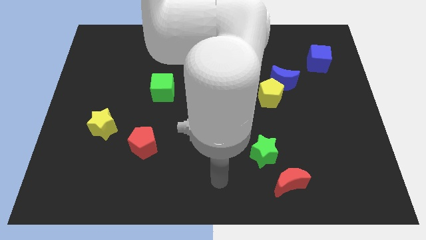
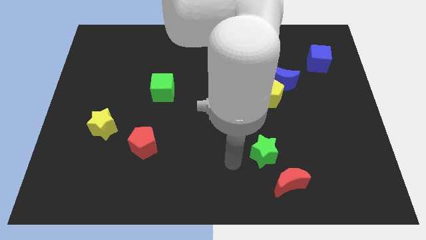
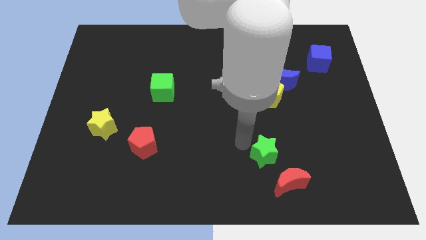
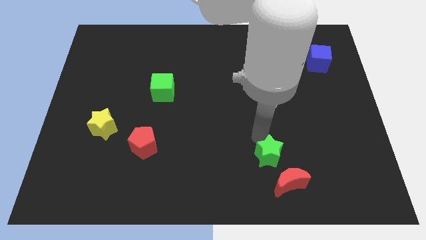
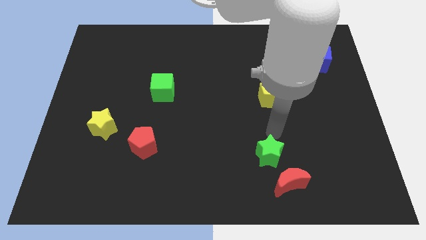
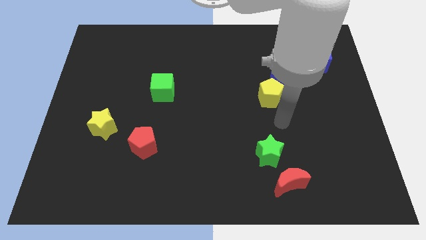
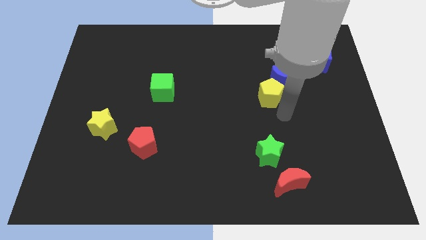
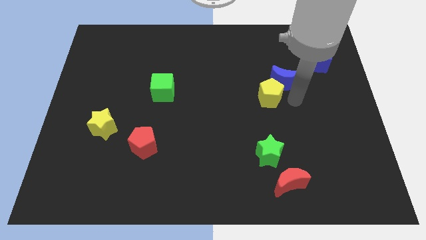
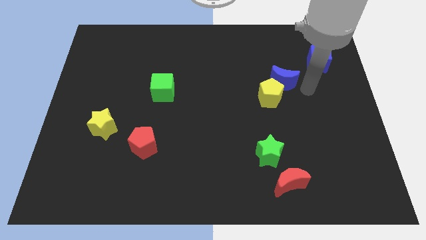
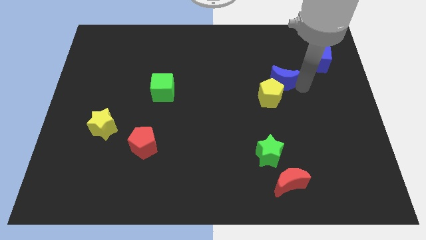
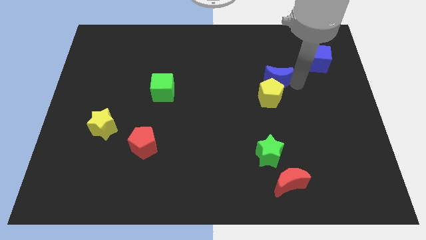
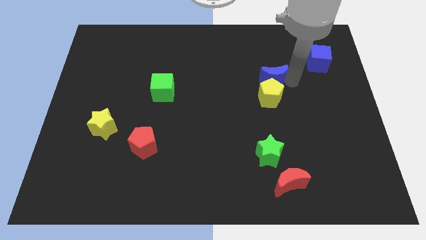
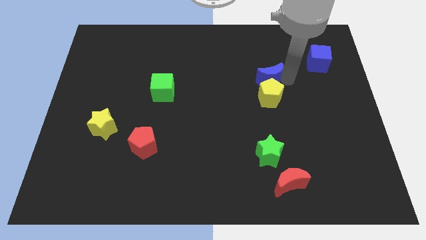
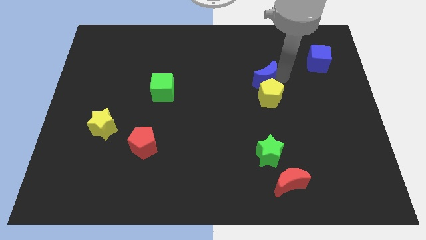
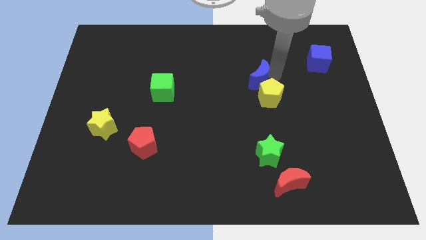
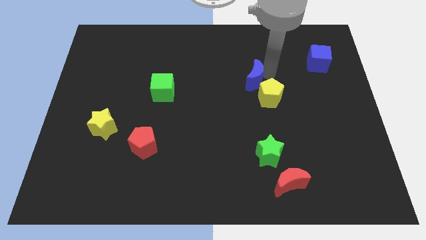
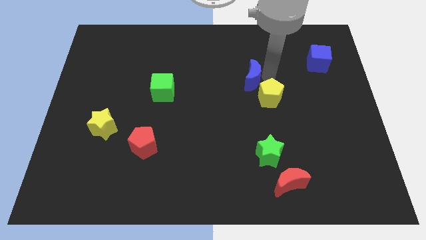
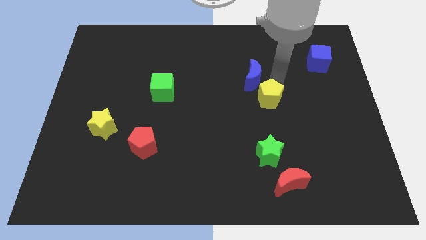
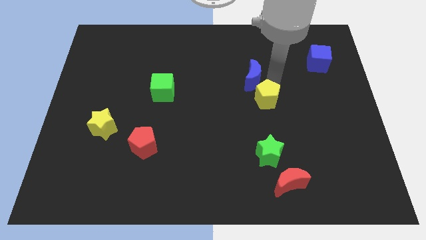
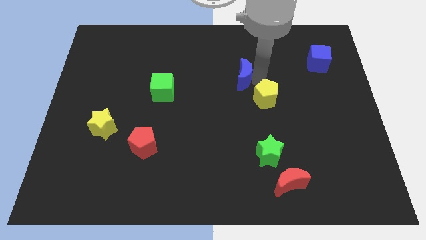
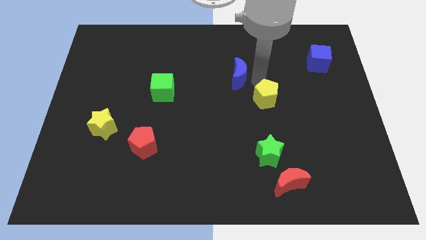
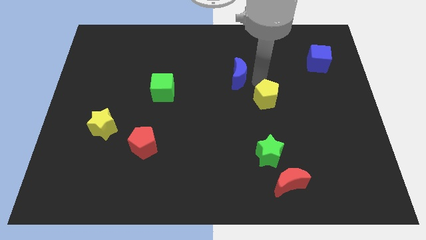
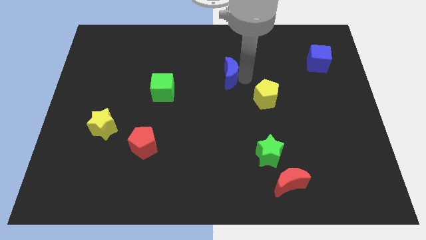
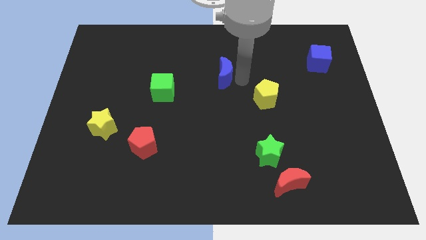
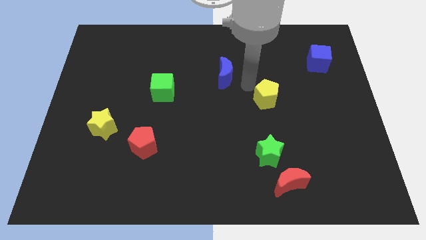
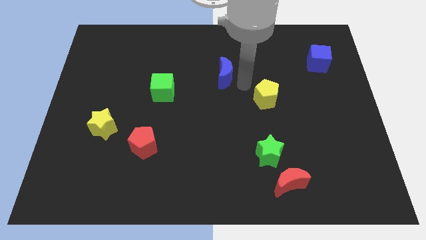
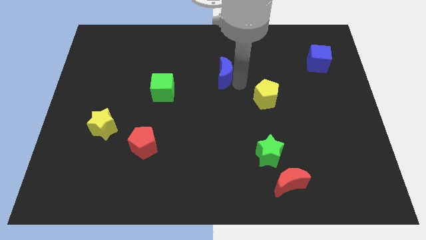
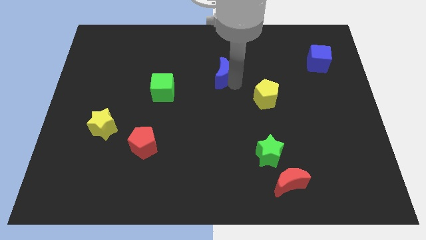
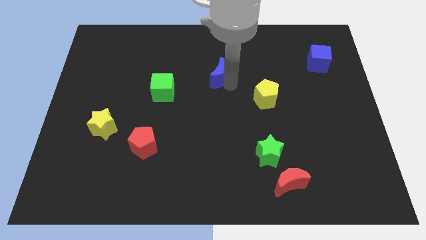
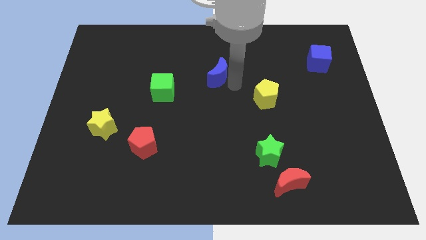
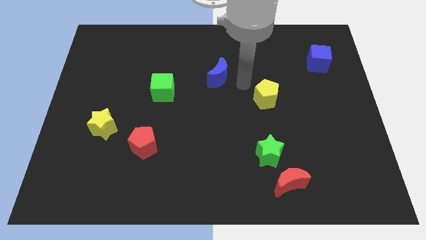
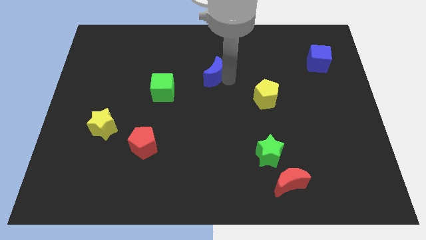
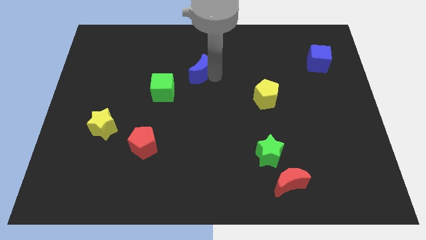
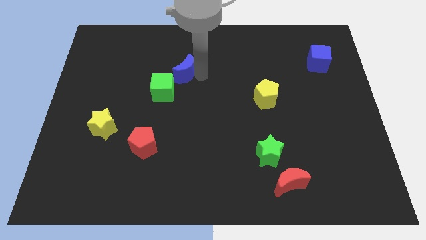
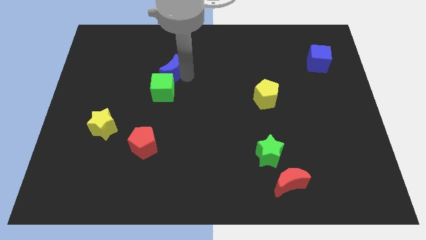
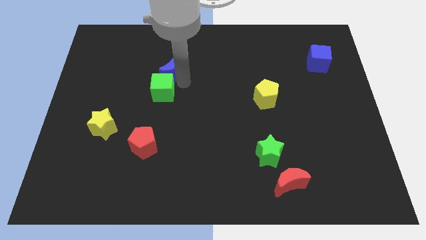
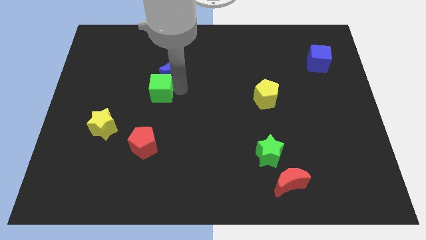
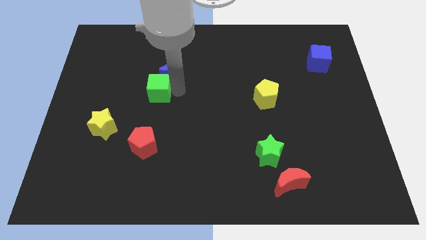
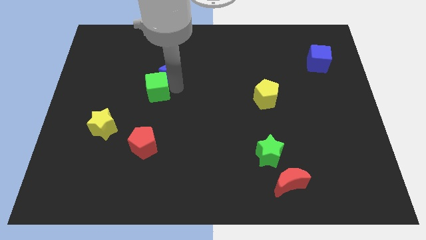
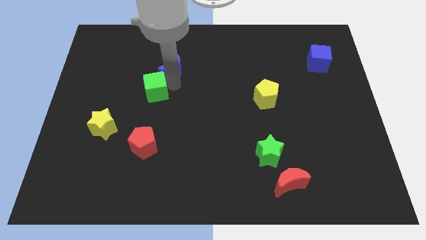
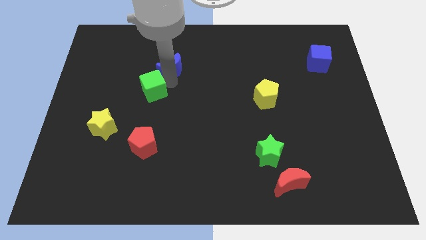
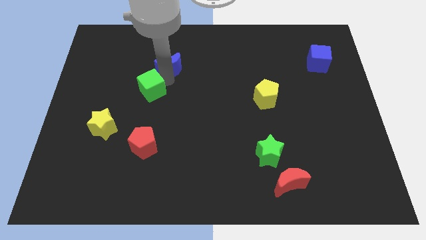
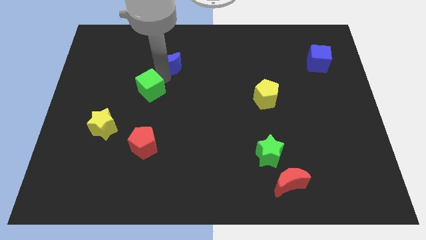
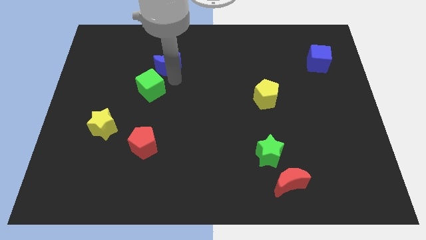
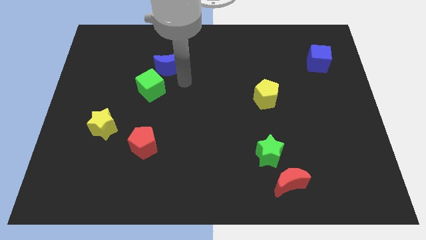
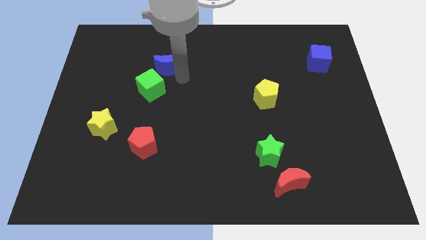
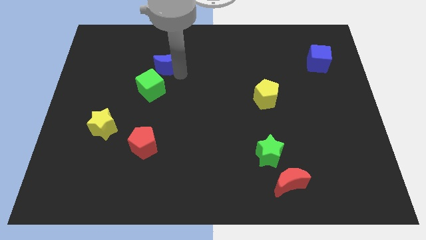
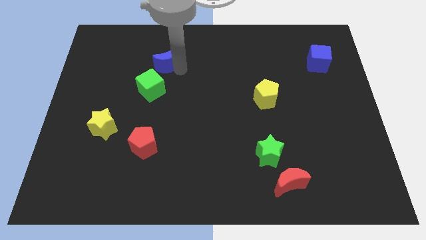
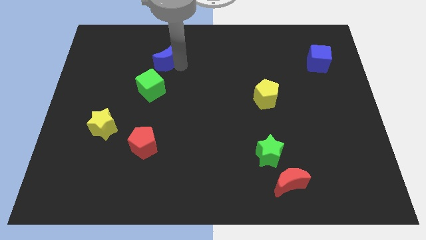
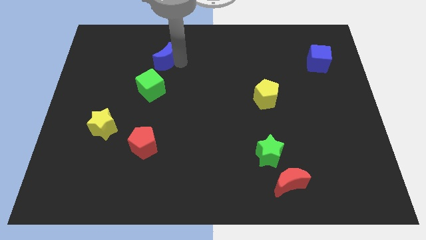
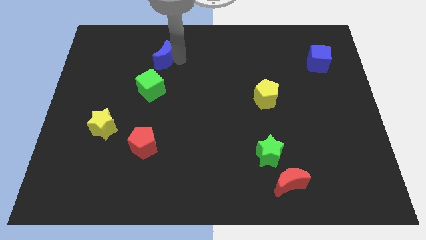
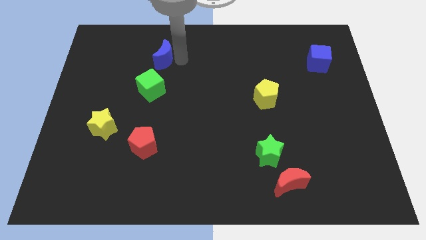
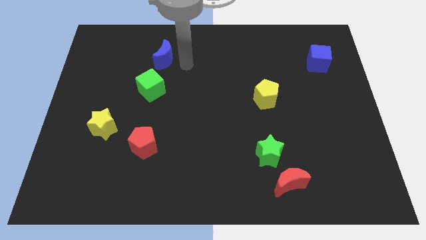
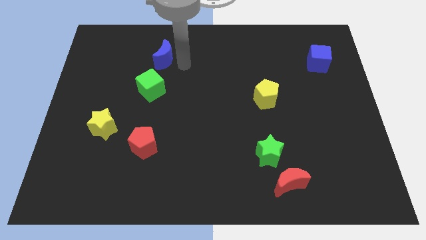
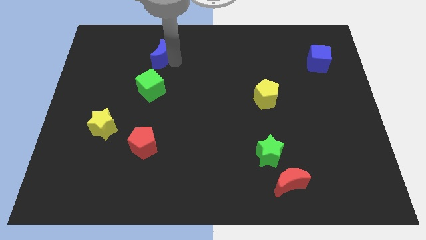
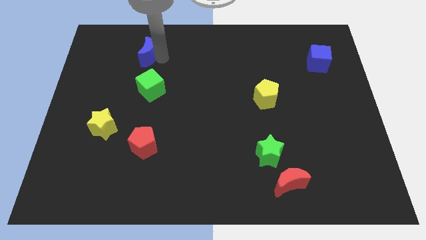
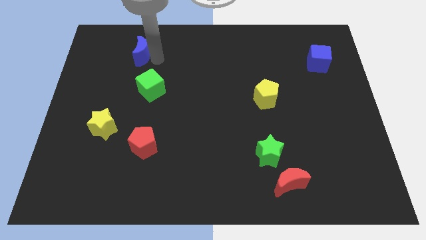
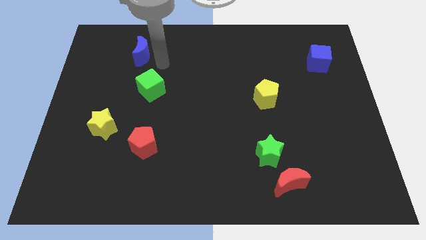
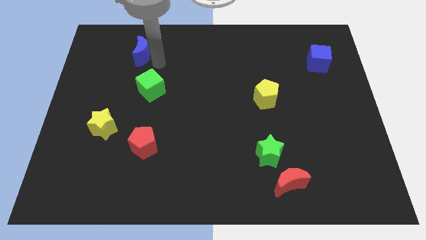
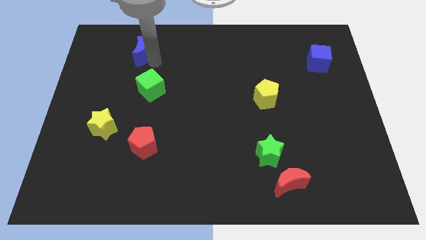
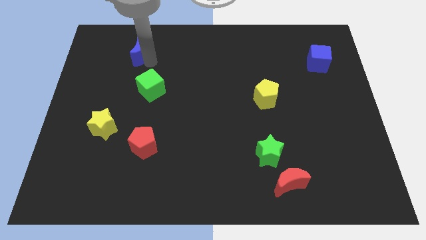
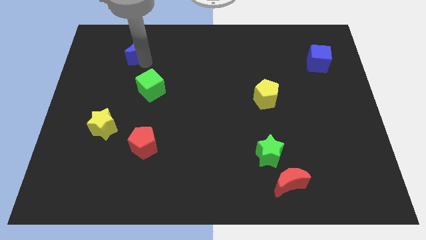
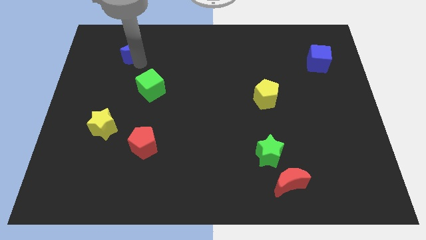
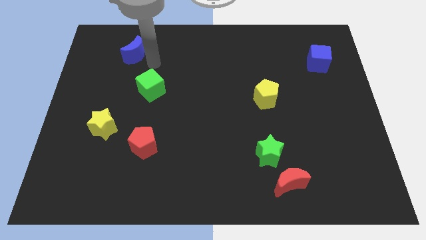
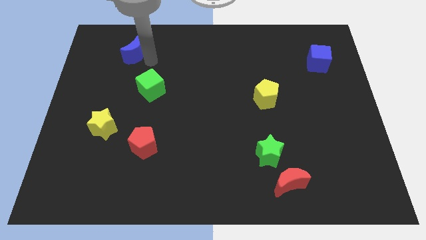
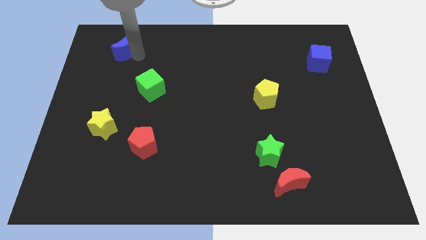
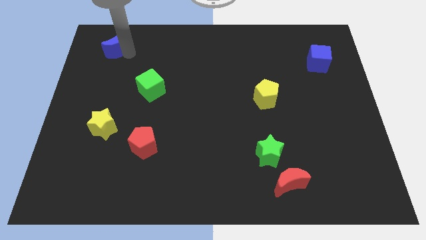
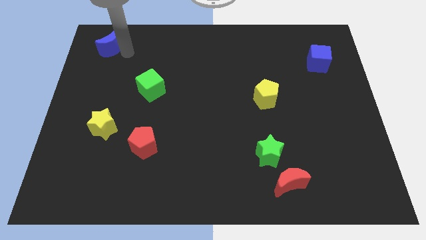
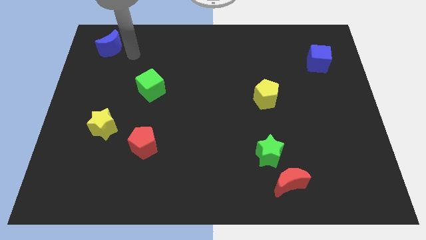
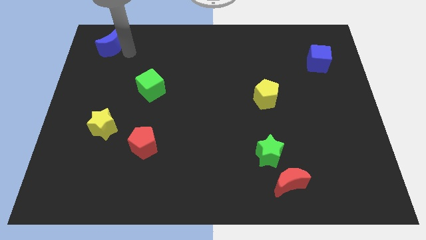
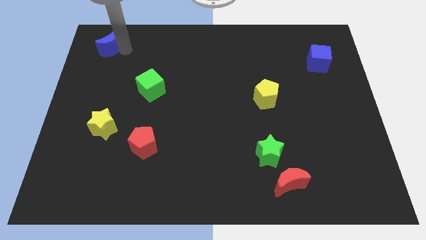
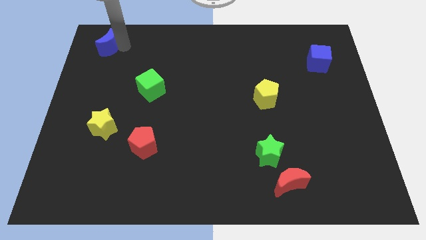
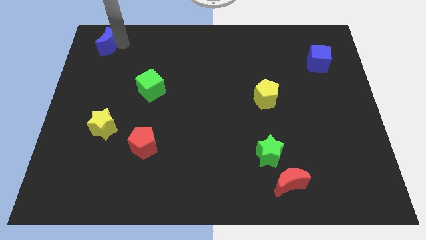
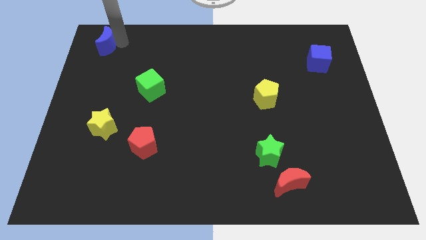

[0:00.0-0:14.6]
move the blue moon to the top left
